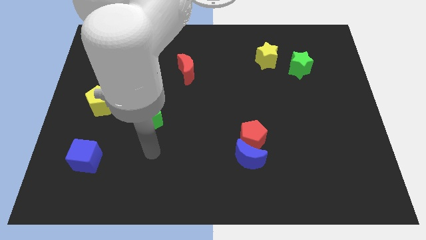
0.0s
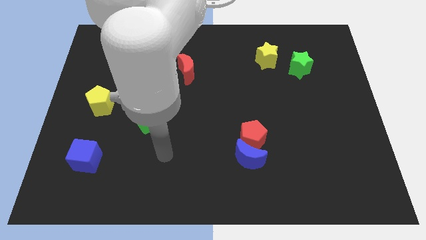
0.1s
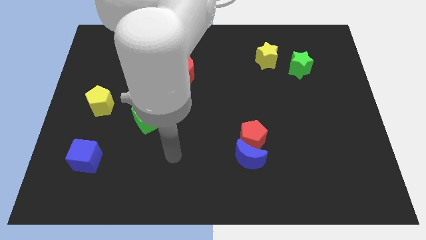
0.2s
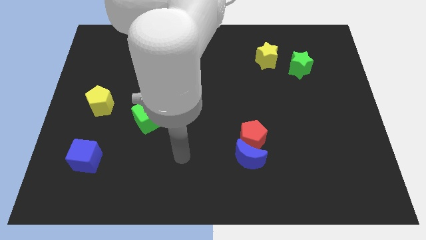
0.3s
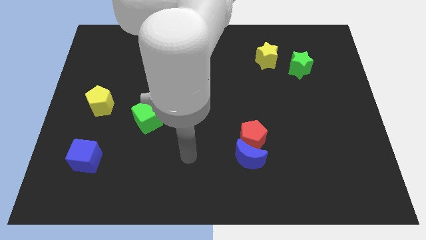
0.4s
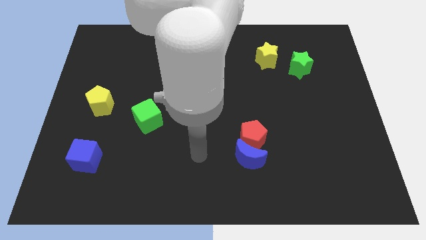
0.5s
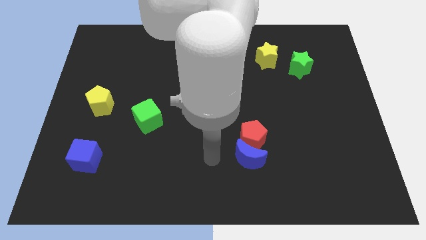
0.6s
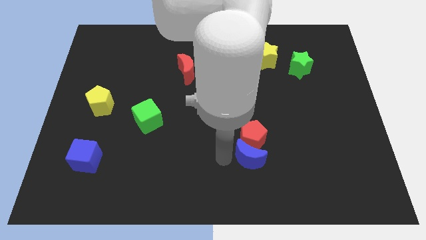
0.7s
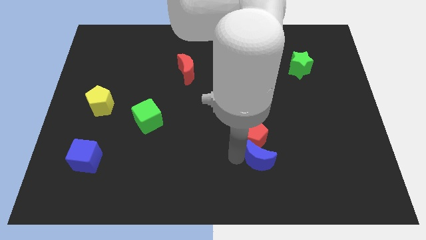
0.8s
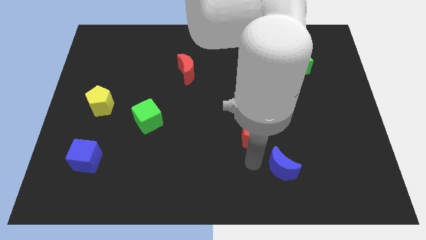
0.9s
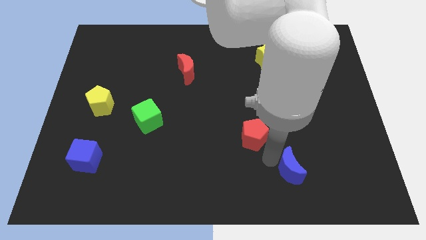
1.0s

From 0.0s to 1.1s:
pull the red pentagon apart from the blue moon

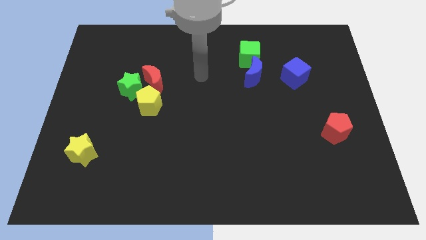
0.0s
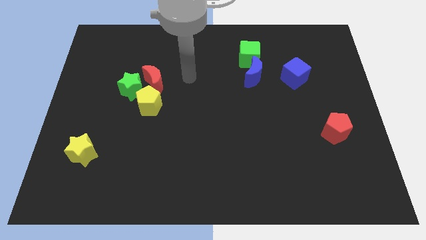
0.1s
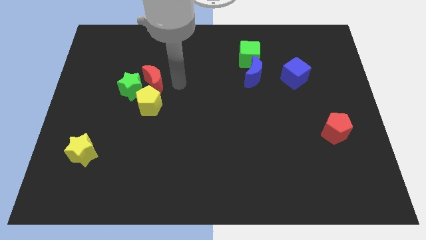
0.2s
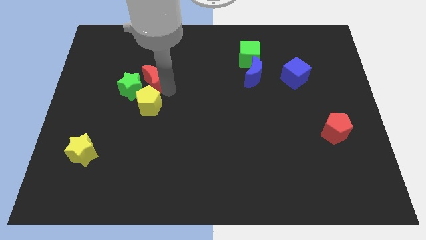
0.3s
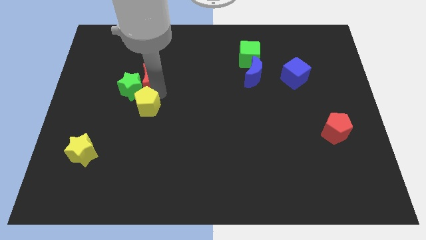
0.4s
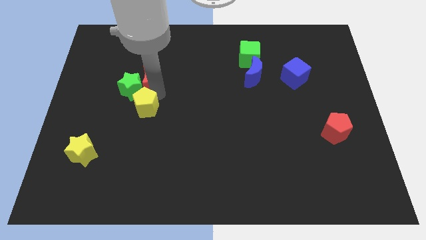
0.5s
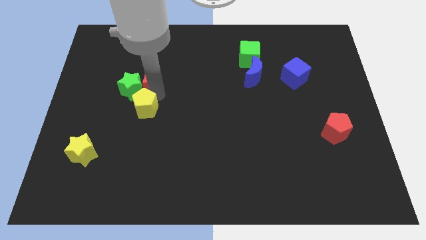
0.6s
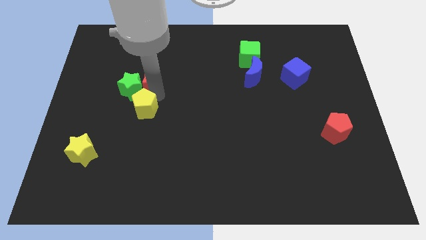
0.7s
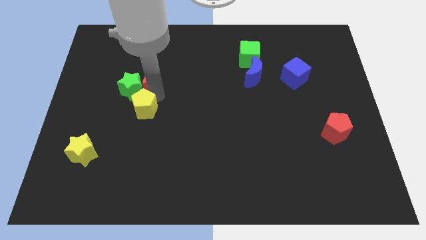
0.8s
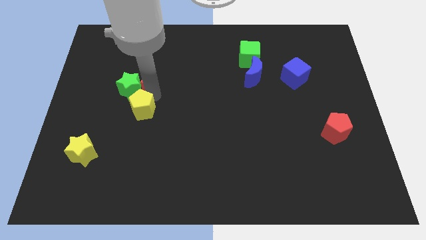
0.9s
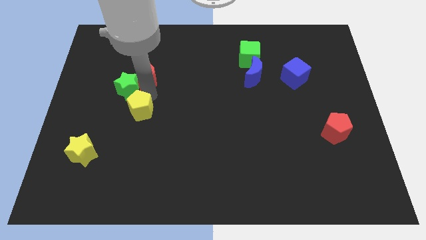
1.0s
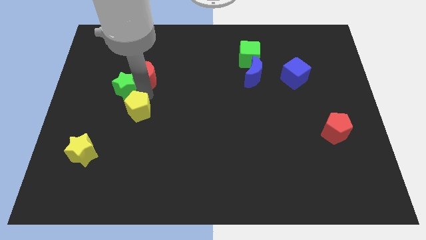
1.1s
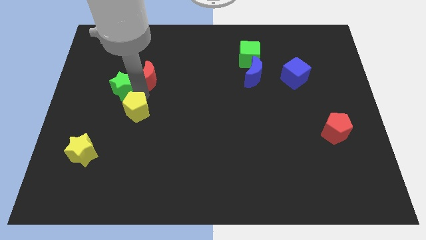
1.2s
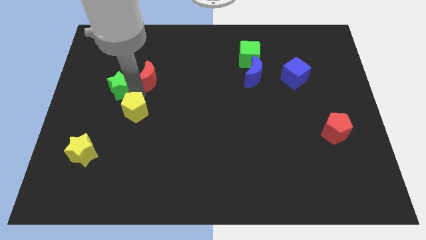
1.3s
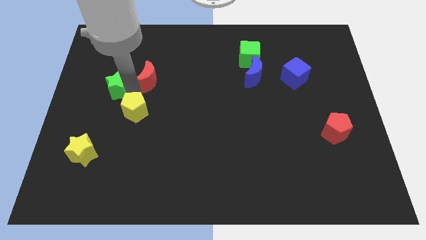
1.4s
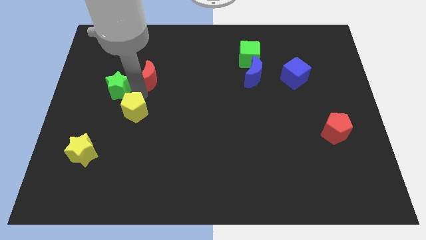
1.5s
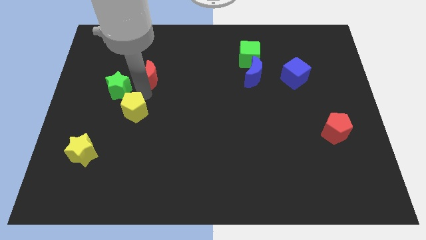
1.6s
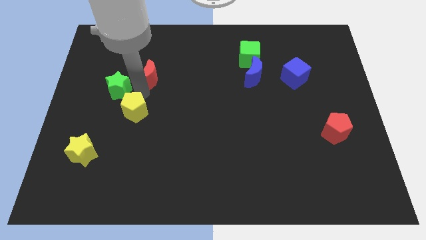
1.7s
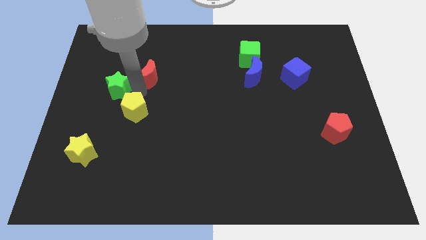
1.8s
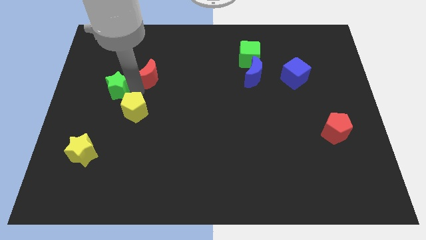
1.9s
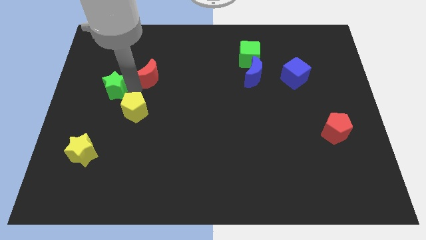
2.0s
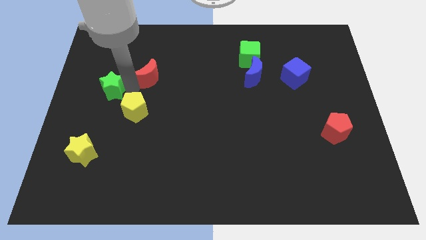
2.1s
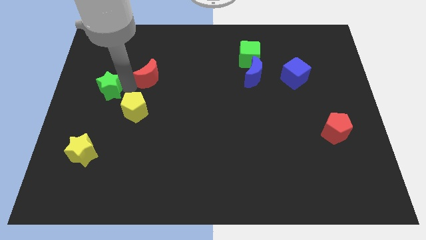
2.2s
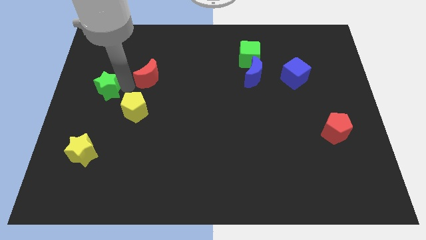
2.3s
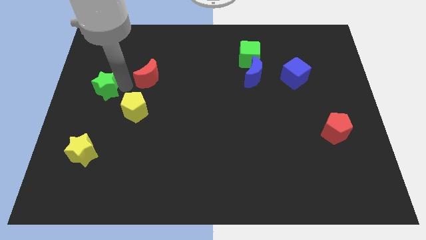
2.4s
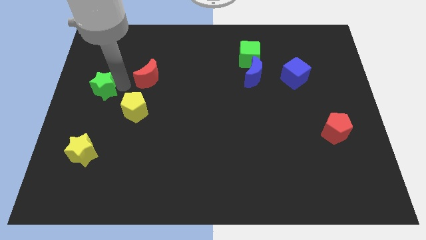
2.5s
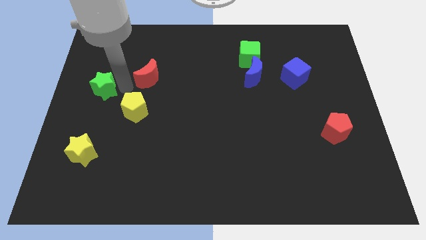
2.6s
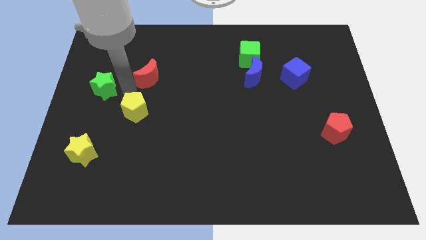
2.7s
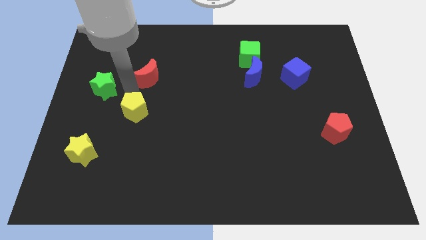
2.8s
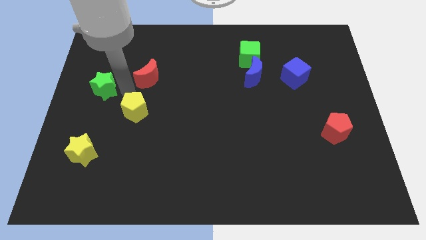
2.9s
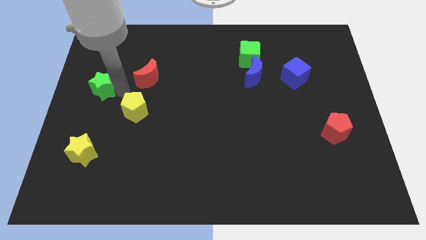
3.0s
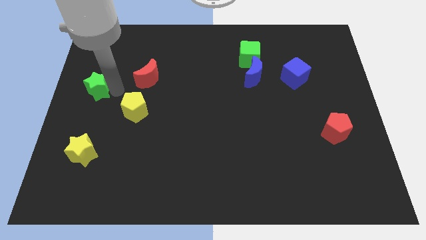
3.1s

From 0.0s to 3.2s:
pull the green star apart from the red moon and yellow pentagon

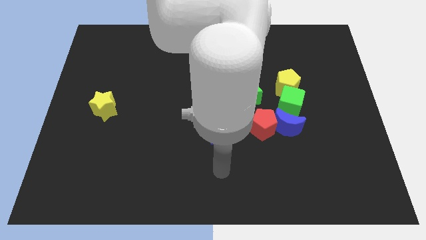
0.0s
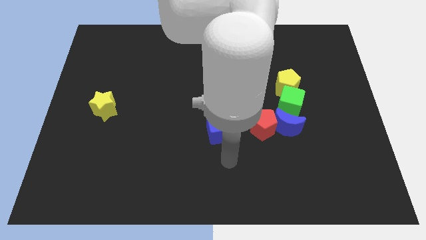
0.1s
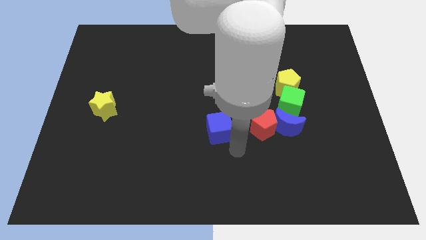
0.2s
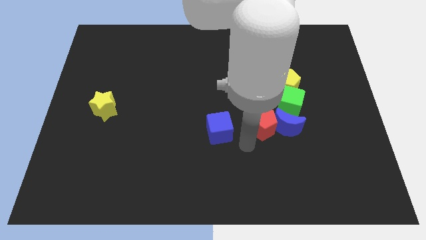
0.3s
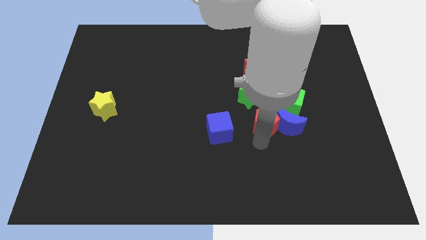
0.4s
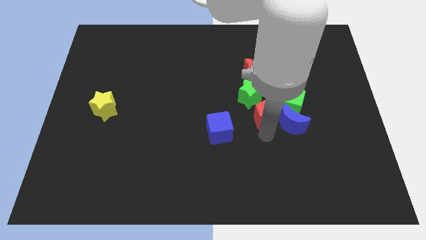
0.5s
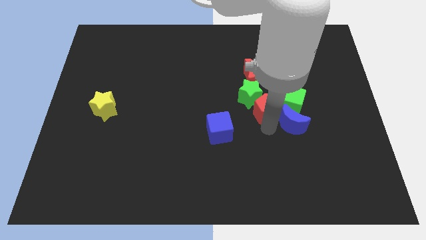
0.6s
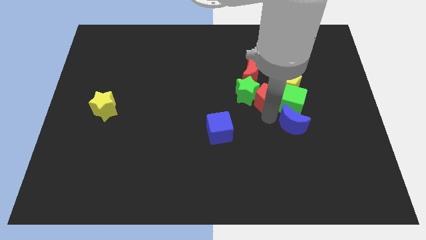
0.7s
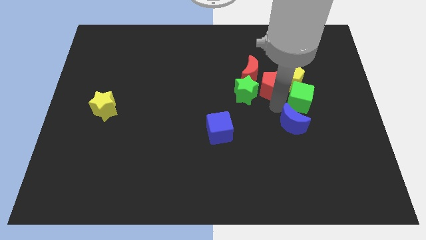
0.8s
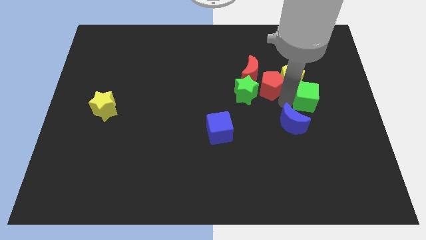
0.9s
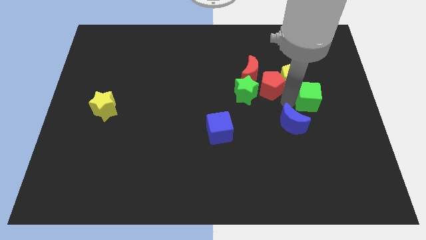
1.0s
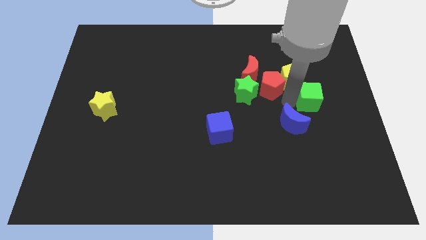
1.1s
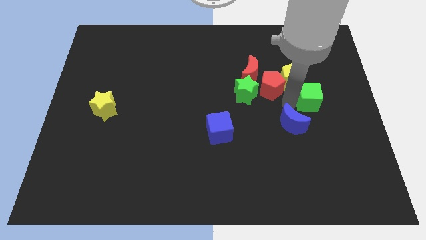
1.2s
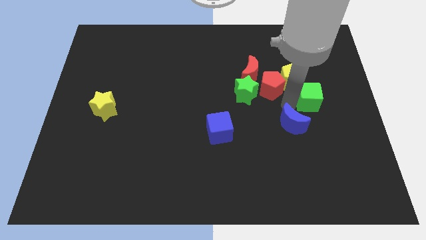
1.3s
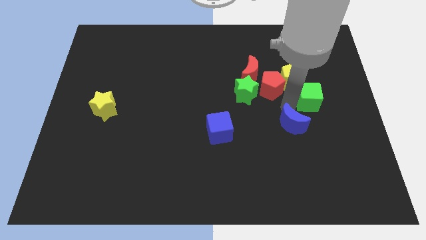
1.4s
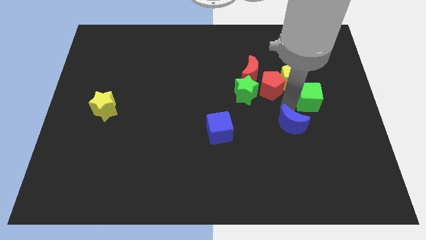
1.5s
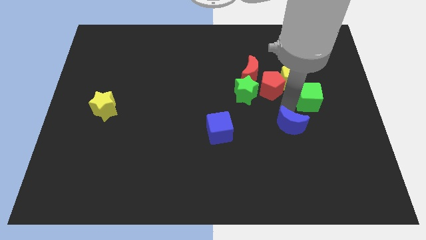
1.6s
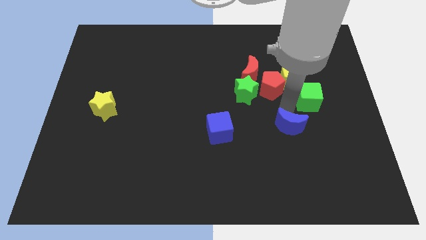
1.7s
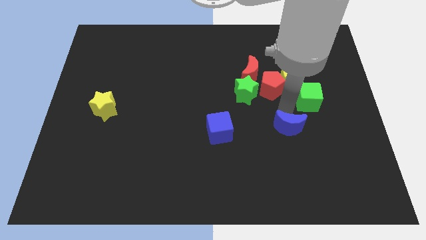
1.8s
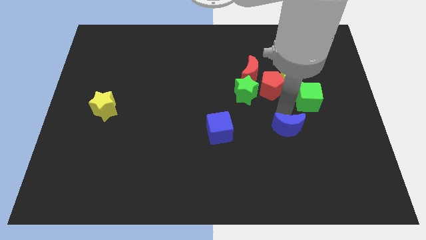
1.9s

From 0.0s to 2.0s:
move the blue moon away from the red pentagon and green cube

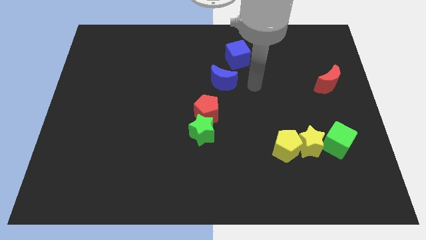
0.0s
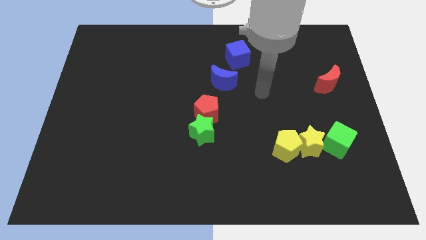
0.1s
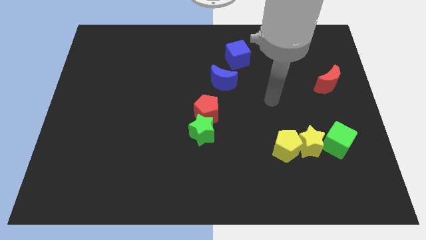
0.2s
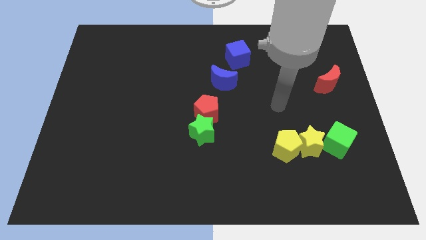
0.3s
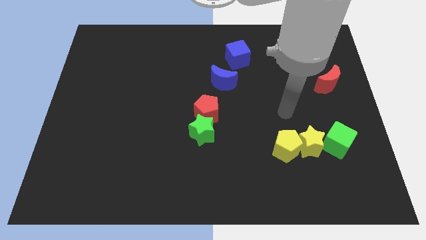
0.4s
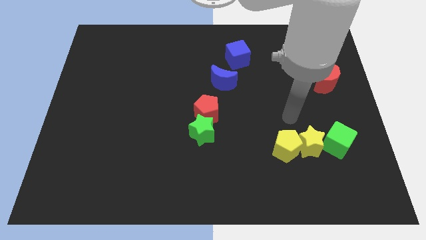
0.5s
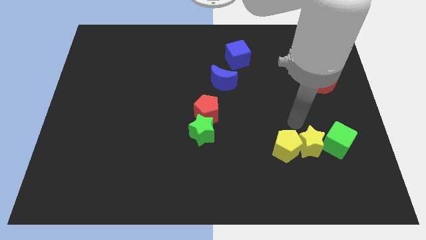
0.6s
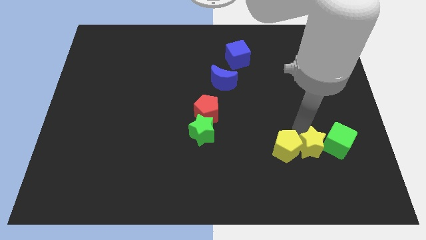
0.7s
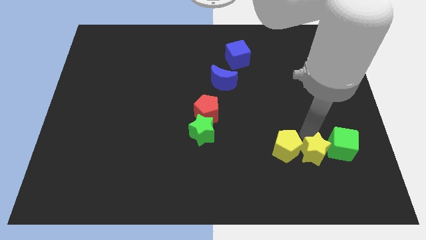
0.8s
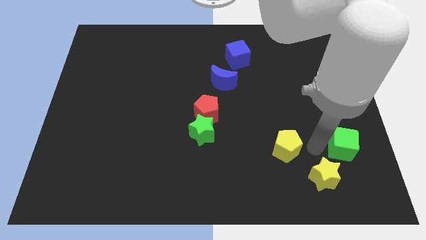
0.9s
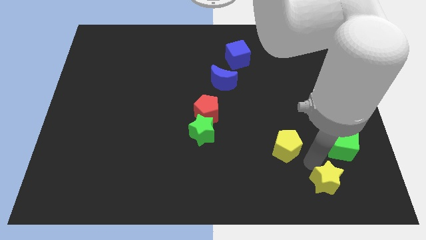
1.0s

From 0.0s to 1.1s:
separate the yellow pentagon from the yellow star

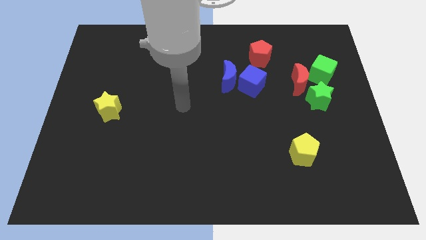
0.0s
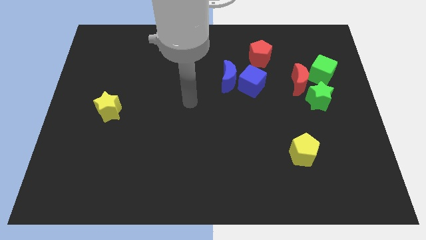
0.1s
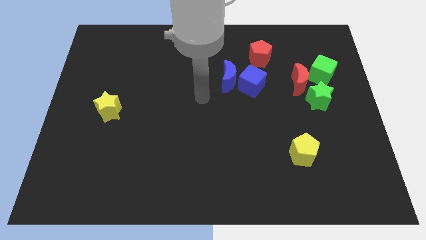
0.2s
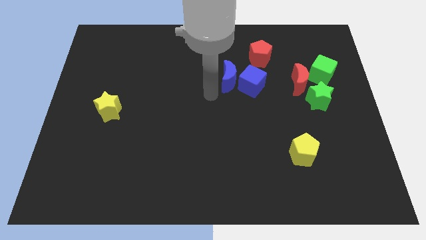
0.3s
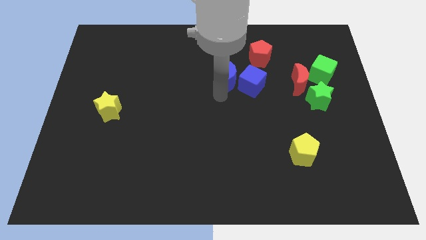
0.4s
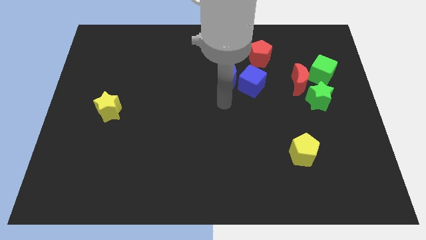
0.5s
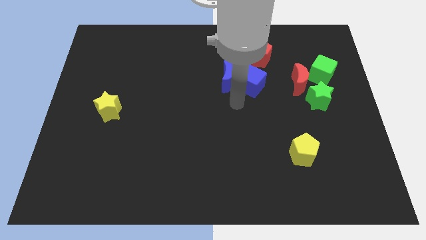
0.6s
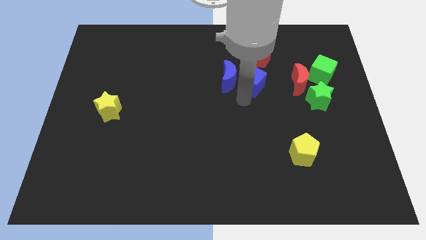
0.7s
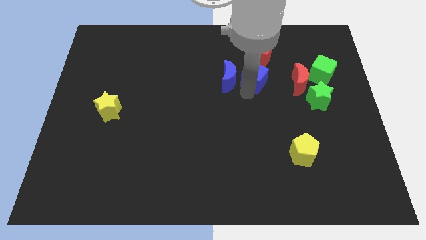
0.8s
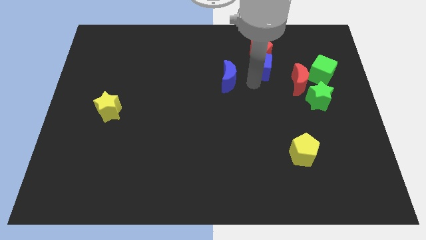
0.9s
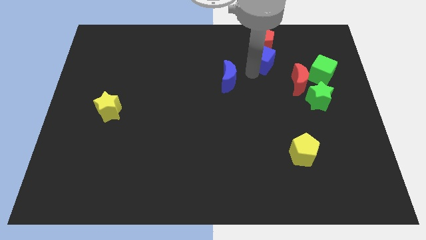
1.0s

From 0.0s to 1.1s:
pull the blue moon apart from the blue cube

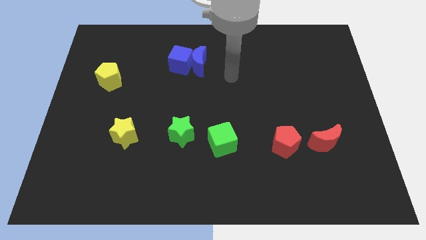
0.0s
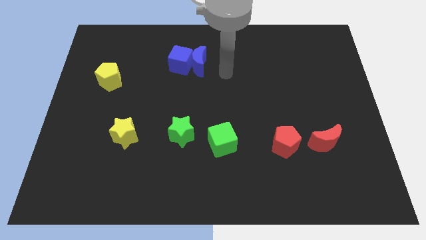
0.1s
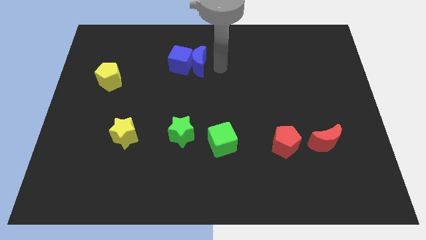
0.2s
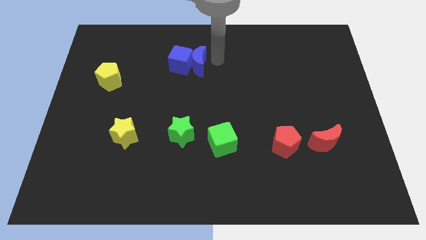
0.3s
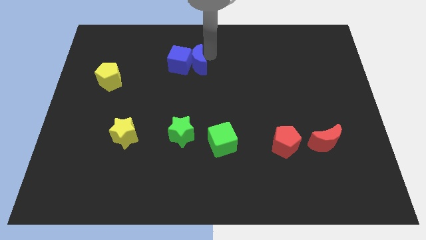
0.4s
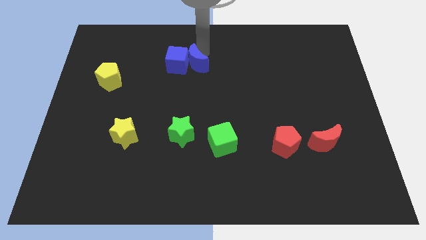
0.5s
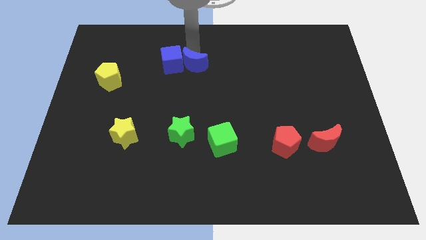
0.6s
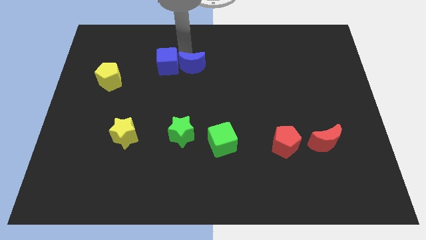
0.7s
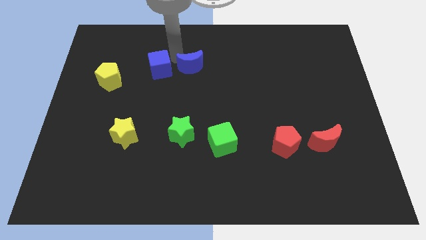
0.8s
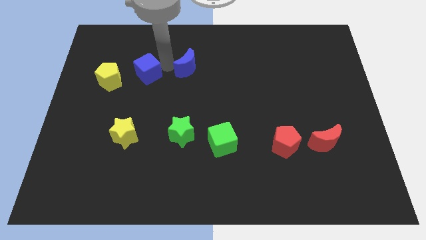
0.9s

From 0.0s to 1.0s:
move the blue moon away from the blue cube
